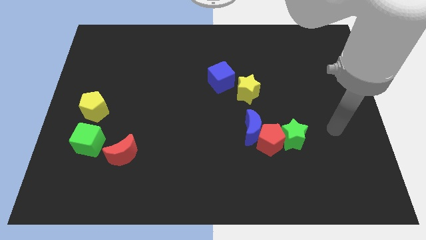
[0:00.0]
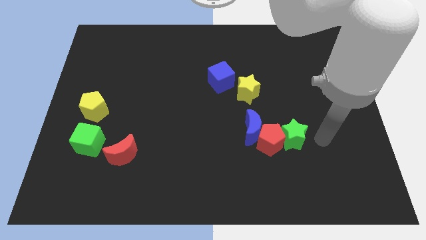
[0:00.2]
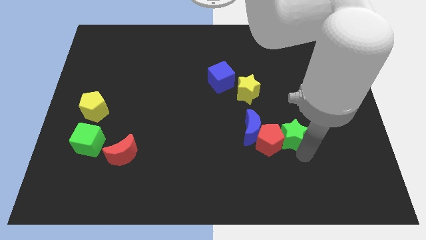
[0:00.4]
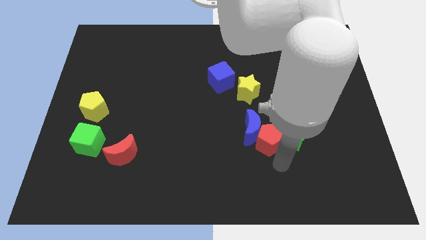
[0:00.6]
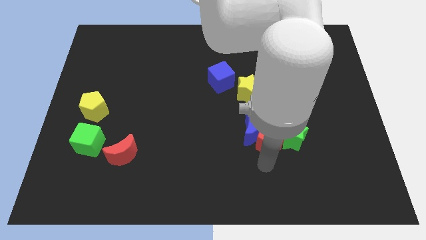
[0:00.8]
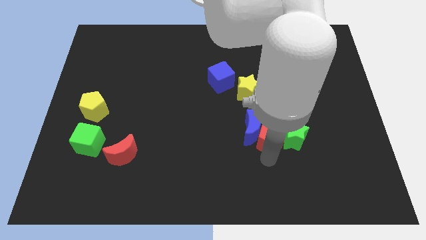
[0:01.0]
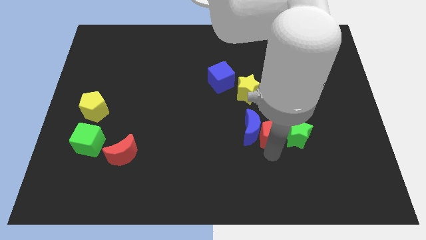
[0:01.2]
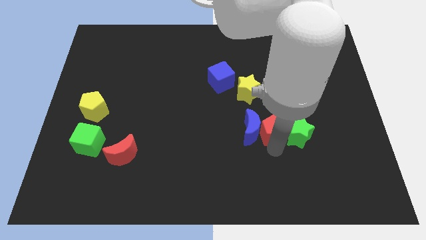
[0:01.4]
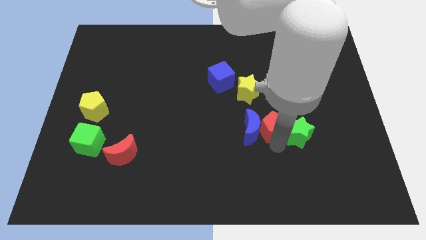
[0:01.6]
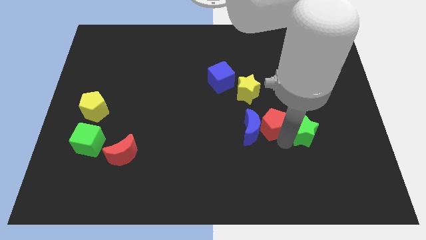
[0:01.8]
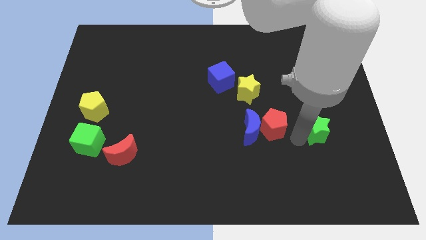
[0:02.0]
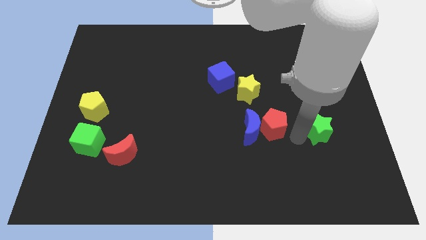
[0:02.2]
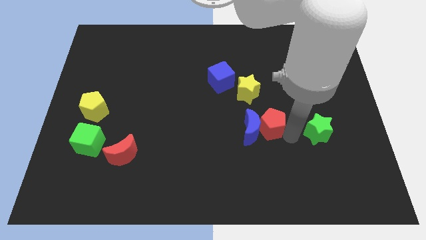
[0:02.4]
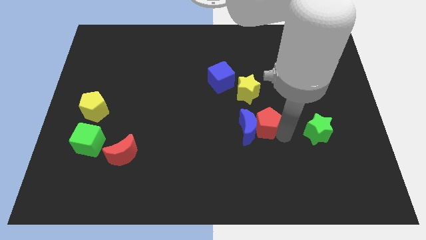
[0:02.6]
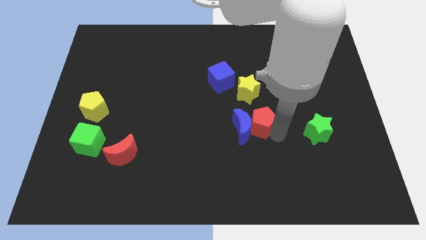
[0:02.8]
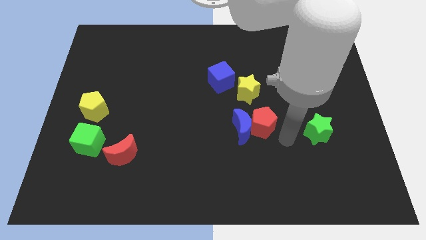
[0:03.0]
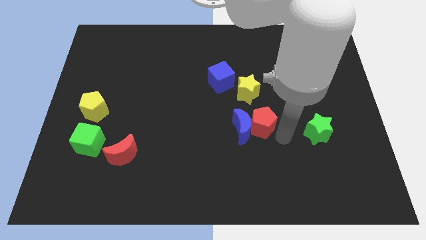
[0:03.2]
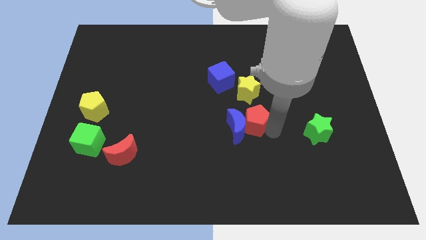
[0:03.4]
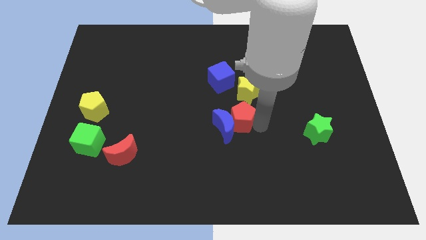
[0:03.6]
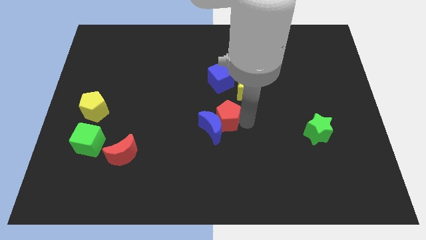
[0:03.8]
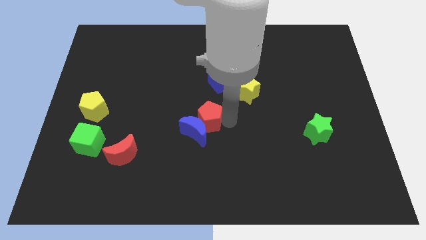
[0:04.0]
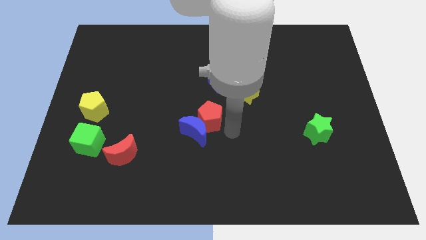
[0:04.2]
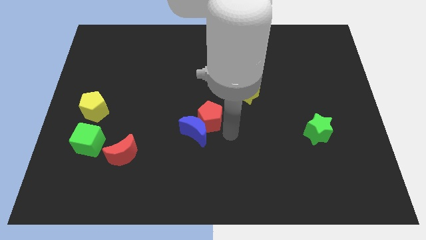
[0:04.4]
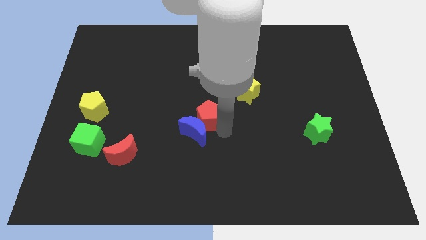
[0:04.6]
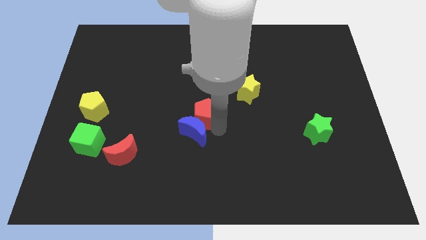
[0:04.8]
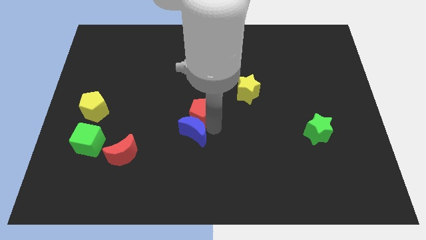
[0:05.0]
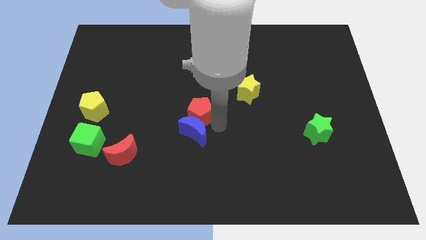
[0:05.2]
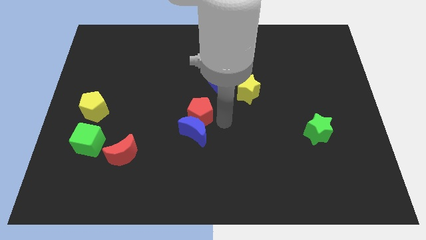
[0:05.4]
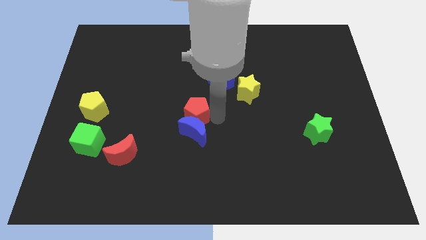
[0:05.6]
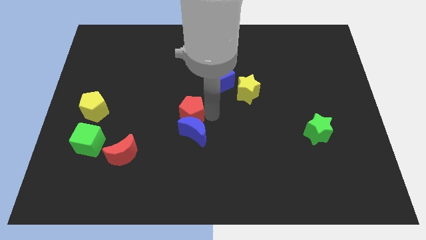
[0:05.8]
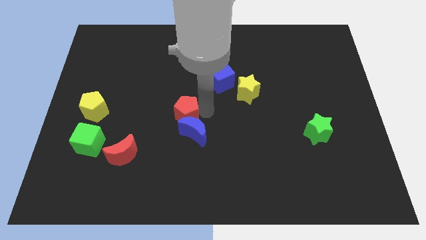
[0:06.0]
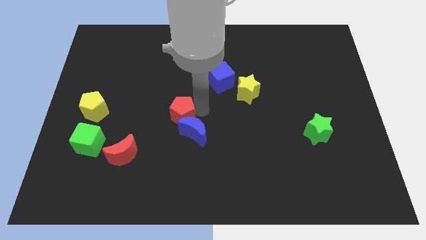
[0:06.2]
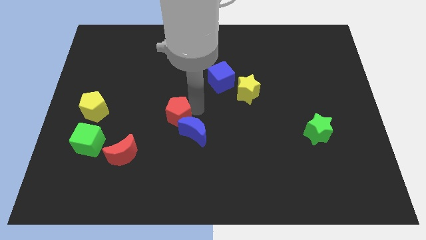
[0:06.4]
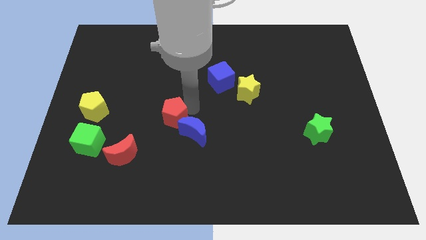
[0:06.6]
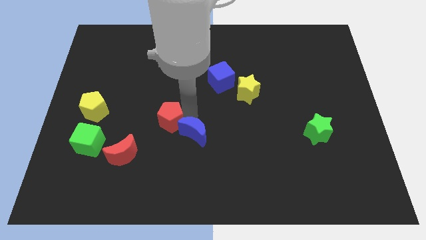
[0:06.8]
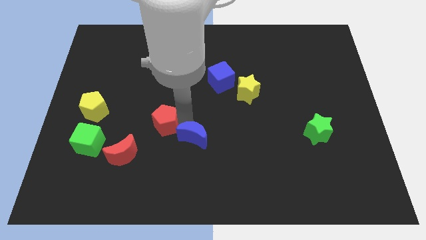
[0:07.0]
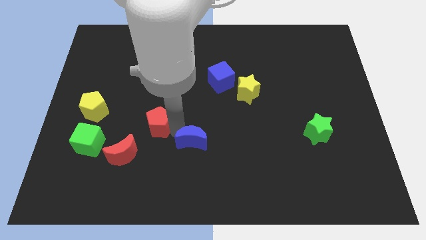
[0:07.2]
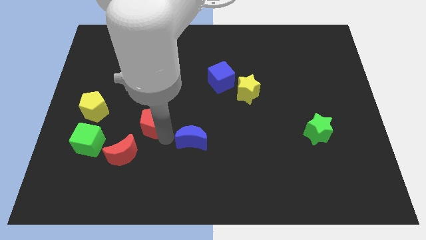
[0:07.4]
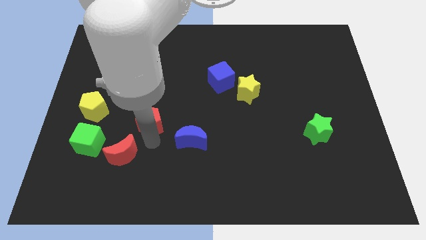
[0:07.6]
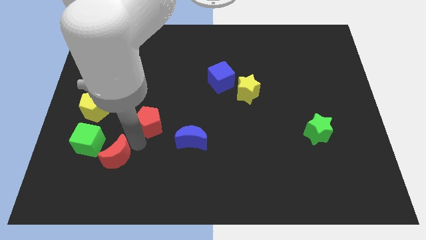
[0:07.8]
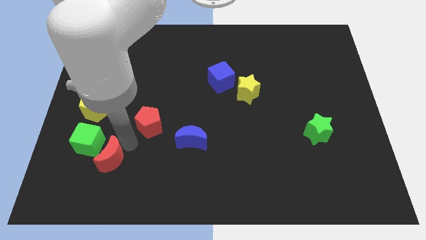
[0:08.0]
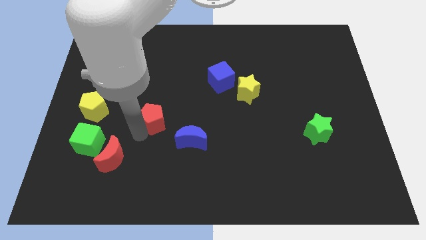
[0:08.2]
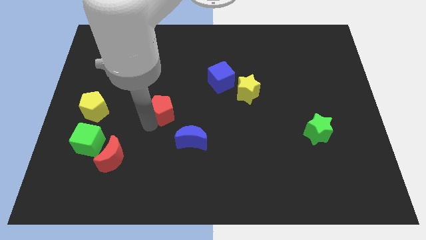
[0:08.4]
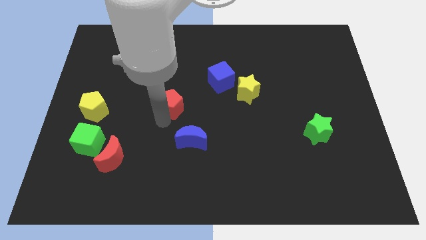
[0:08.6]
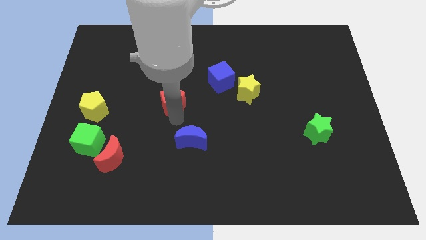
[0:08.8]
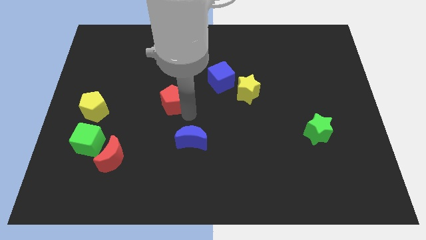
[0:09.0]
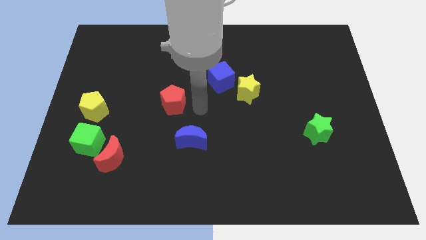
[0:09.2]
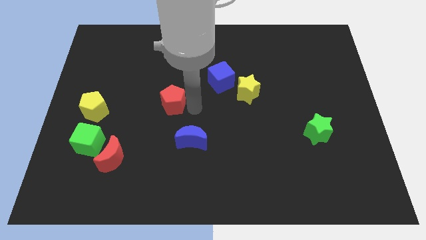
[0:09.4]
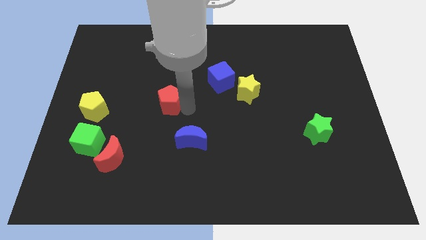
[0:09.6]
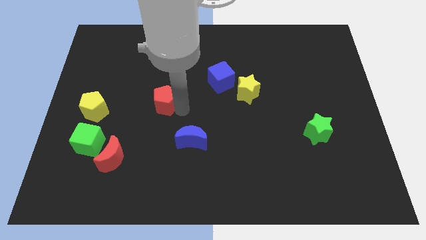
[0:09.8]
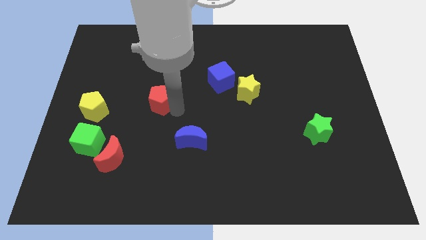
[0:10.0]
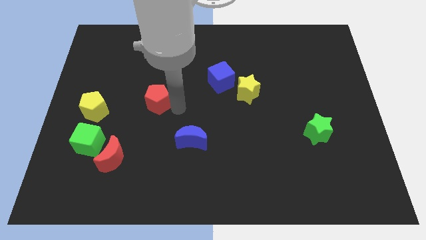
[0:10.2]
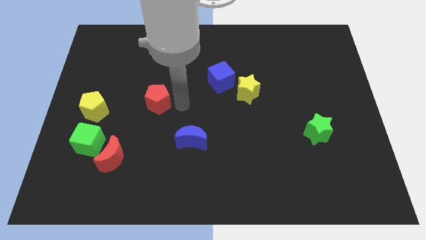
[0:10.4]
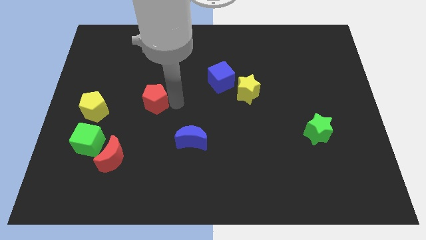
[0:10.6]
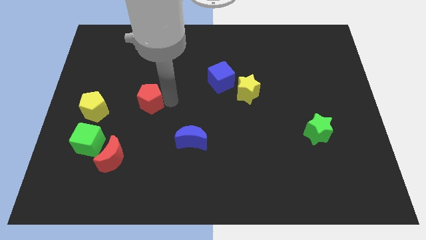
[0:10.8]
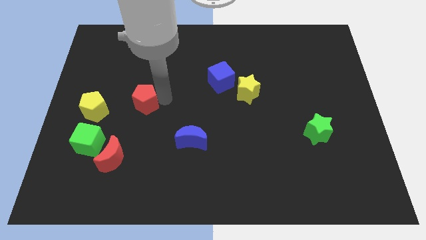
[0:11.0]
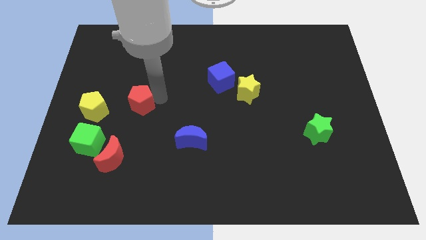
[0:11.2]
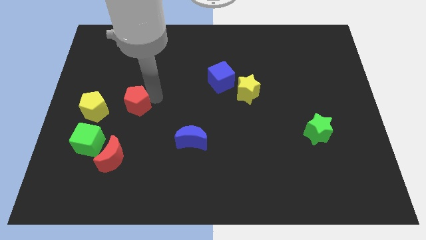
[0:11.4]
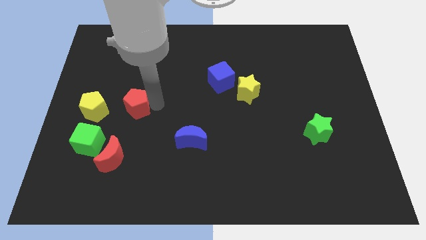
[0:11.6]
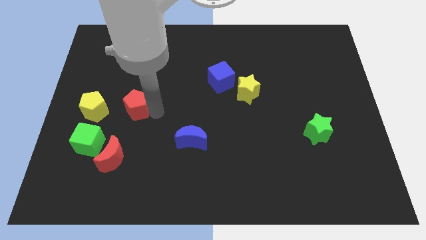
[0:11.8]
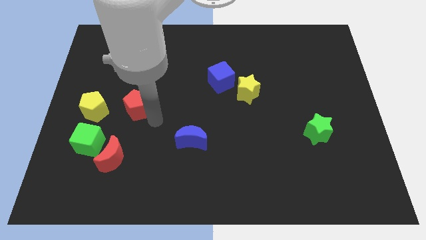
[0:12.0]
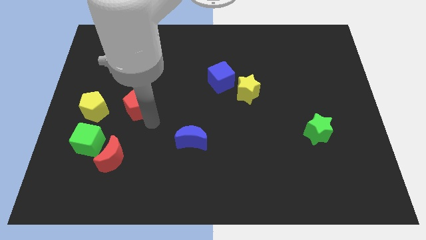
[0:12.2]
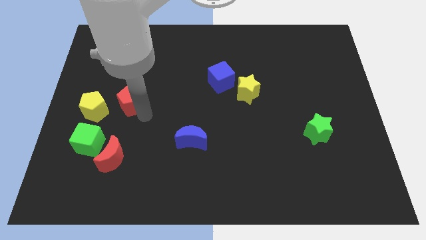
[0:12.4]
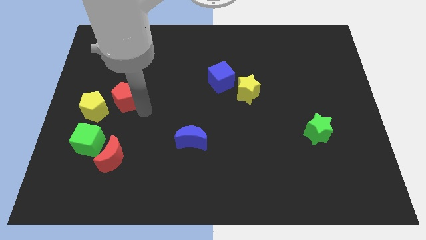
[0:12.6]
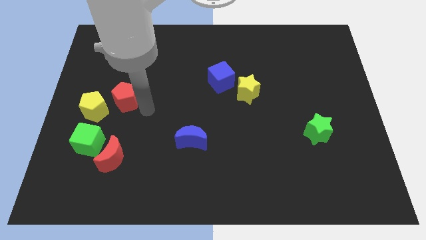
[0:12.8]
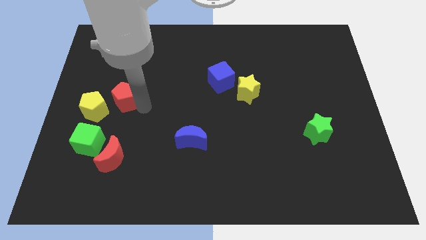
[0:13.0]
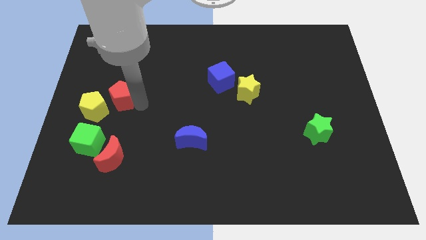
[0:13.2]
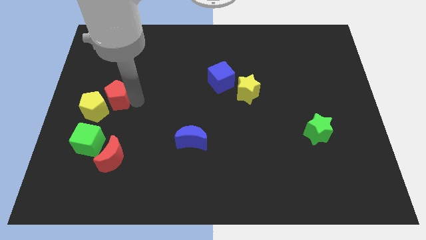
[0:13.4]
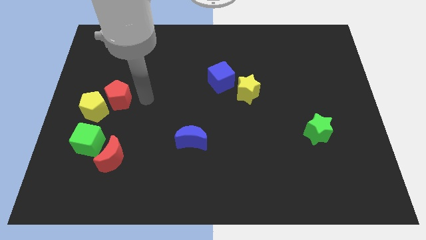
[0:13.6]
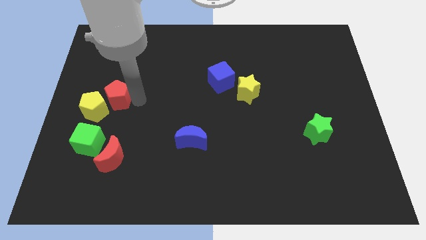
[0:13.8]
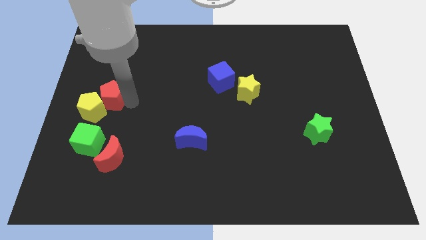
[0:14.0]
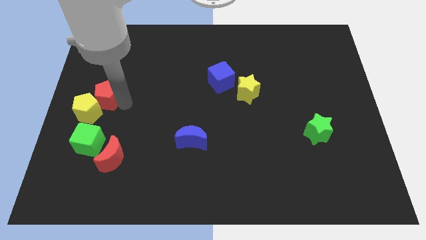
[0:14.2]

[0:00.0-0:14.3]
move the red pentagon to the left side of the board

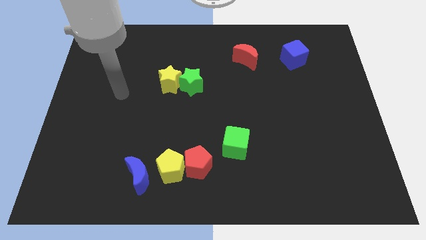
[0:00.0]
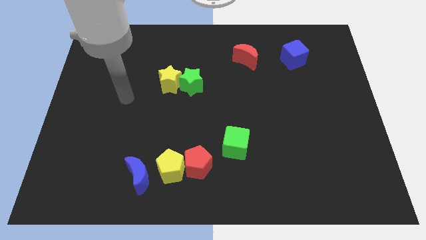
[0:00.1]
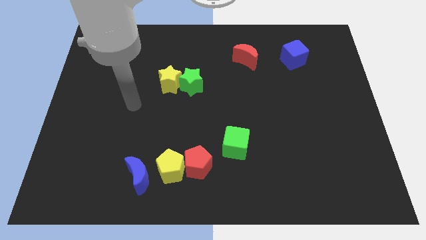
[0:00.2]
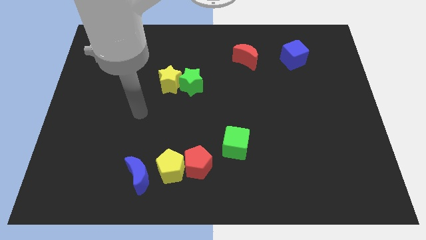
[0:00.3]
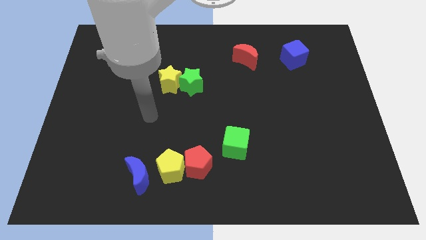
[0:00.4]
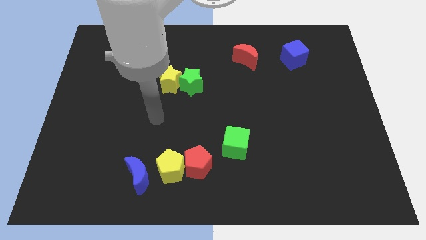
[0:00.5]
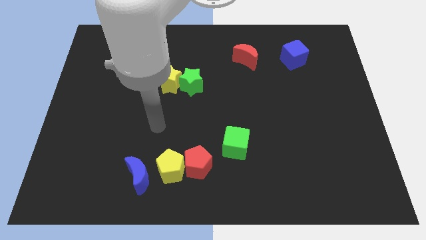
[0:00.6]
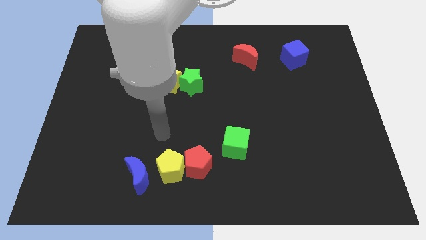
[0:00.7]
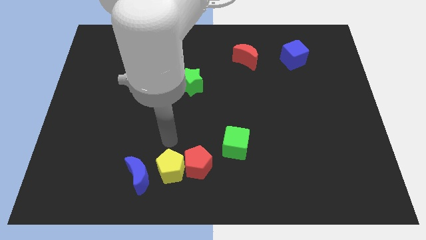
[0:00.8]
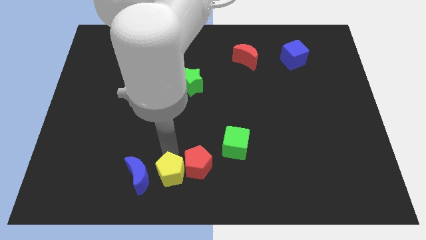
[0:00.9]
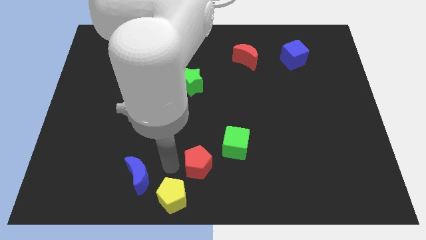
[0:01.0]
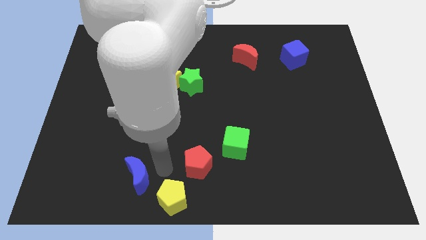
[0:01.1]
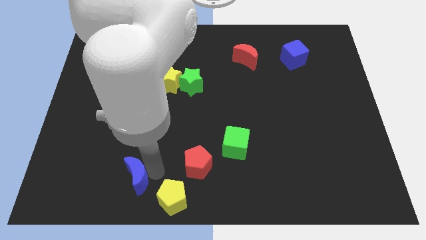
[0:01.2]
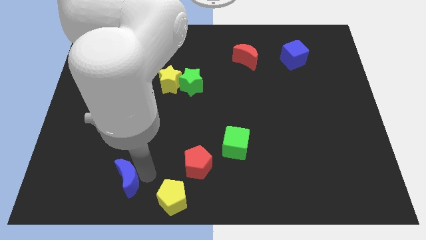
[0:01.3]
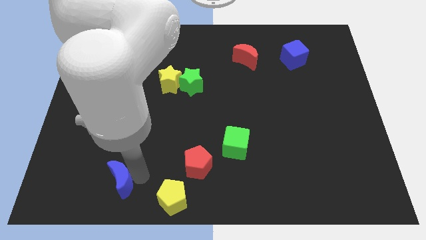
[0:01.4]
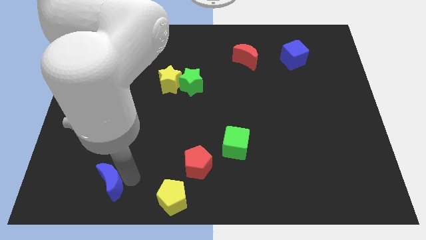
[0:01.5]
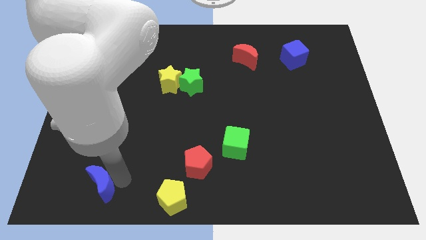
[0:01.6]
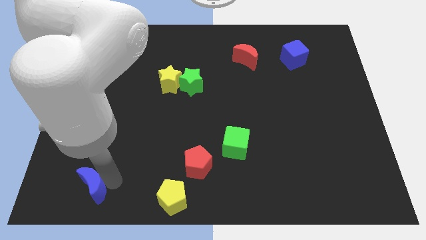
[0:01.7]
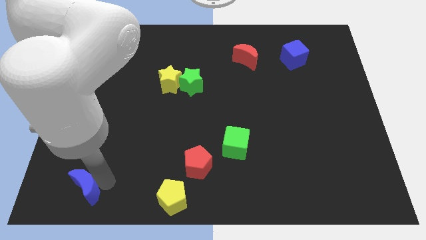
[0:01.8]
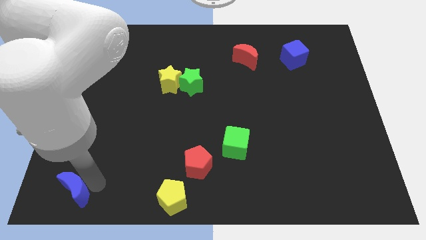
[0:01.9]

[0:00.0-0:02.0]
put the blue moon to the bottom left
